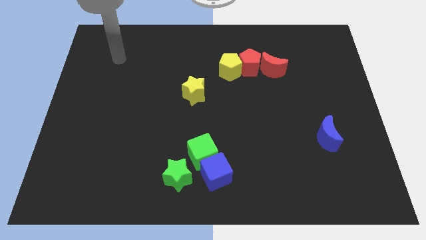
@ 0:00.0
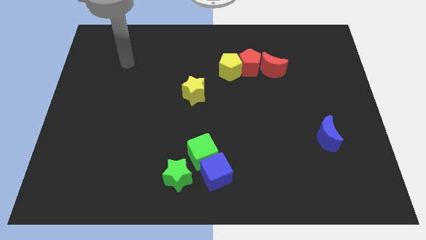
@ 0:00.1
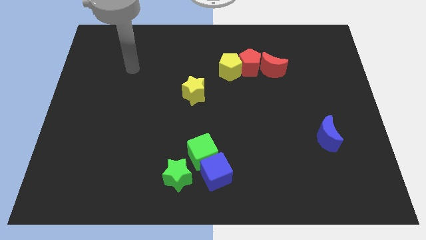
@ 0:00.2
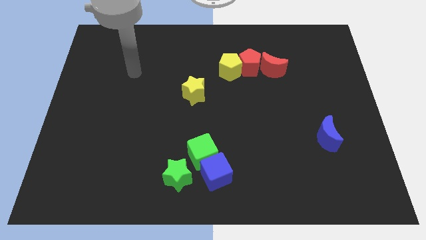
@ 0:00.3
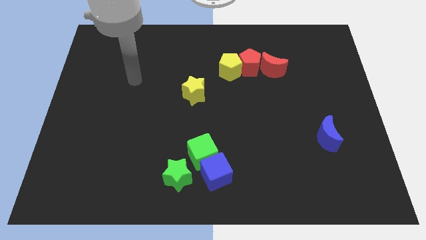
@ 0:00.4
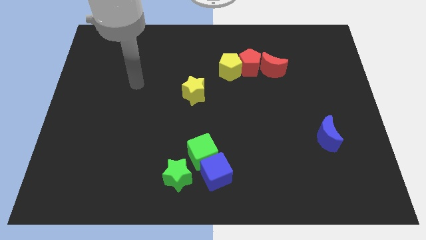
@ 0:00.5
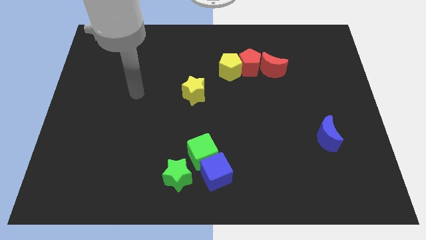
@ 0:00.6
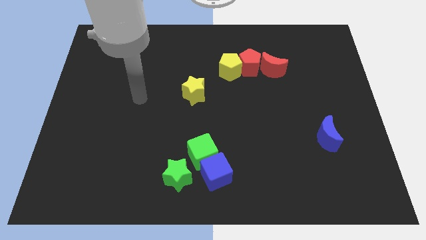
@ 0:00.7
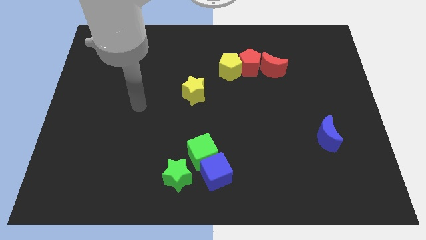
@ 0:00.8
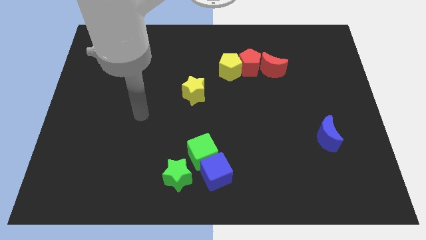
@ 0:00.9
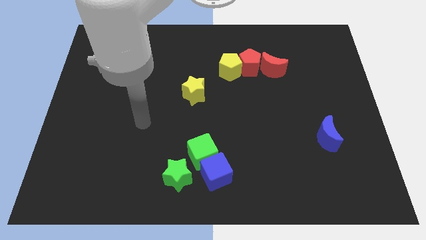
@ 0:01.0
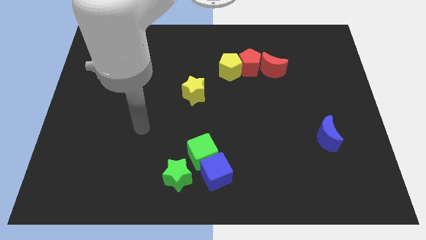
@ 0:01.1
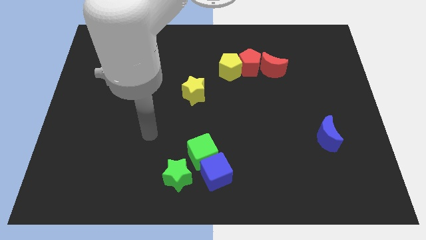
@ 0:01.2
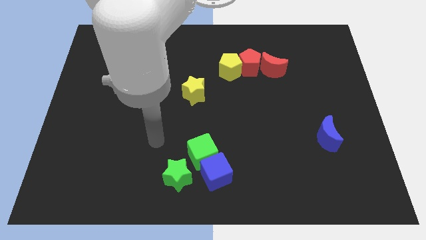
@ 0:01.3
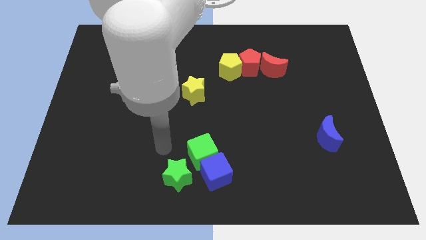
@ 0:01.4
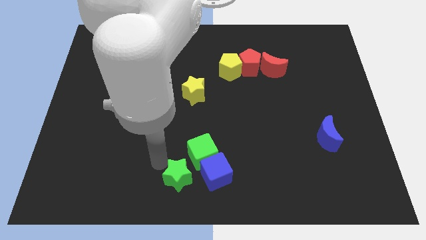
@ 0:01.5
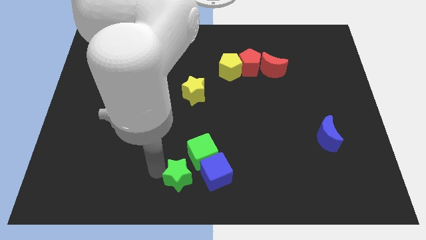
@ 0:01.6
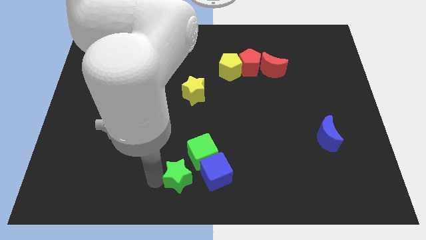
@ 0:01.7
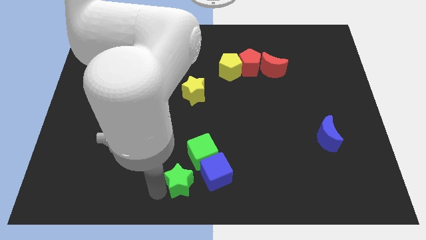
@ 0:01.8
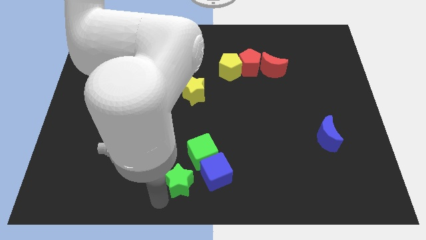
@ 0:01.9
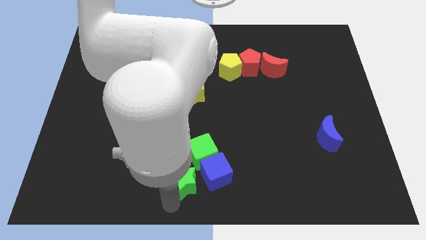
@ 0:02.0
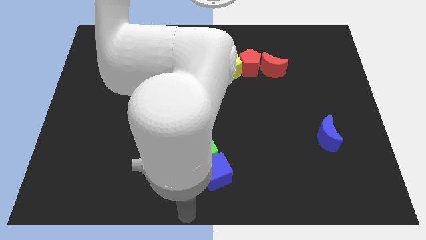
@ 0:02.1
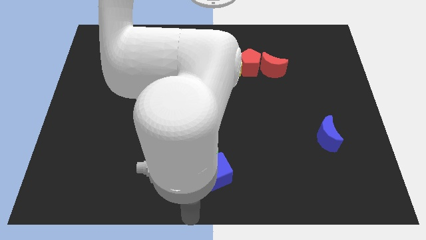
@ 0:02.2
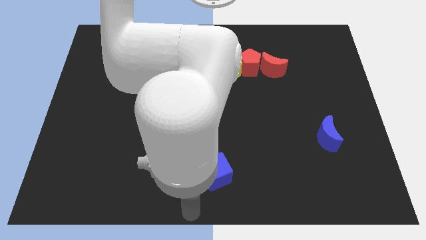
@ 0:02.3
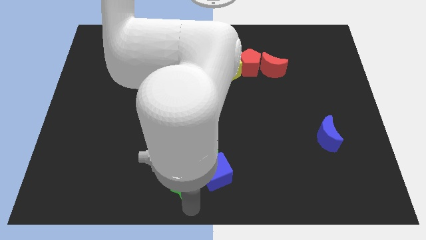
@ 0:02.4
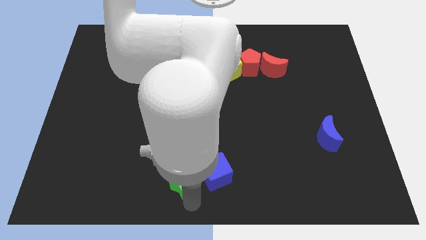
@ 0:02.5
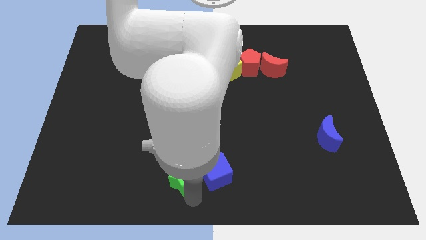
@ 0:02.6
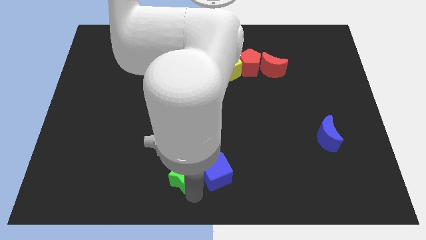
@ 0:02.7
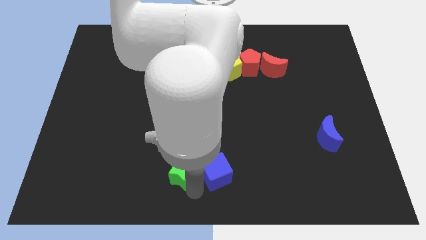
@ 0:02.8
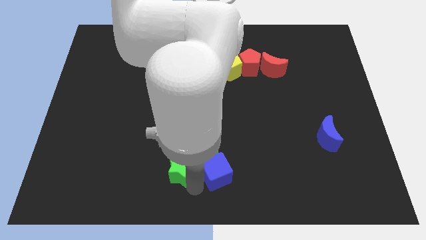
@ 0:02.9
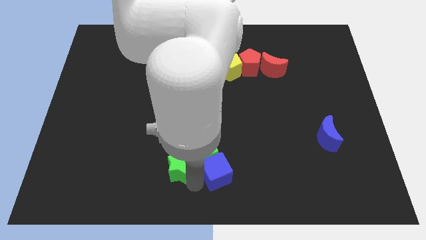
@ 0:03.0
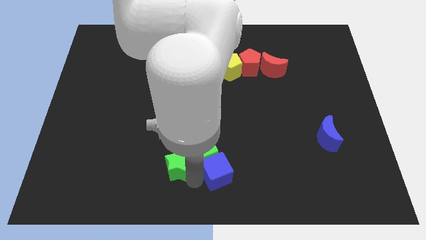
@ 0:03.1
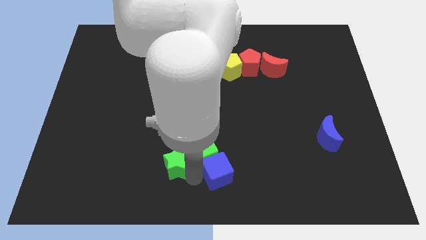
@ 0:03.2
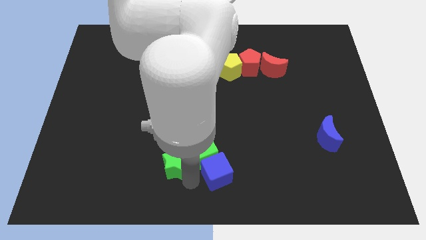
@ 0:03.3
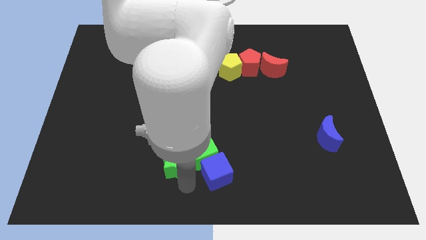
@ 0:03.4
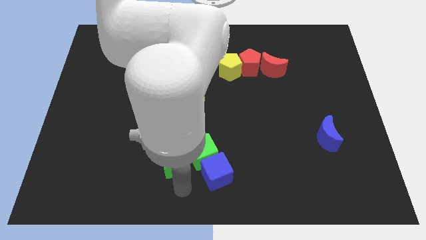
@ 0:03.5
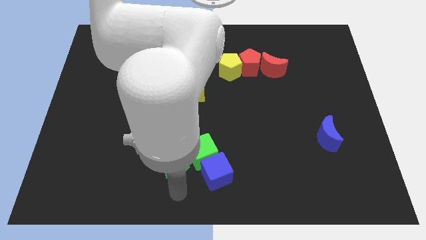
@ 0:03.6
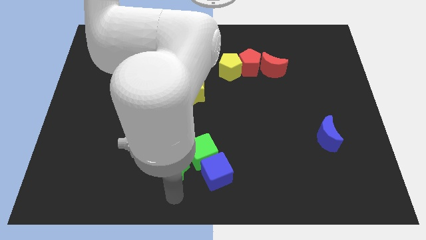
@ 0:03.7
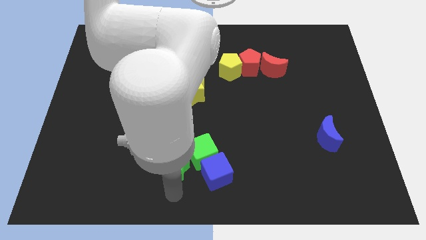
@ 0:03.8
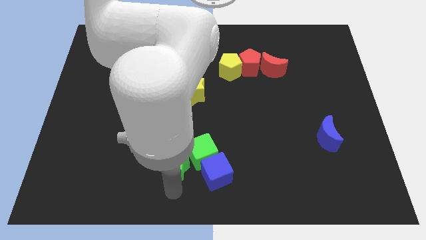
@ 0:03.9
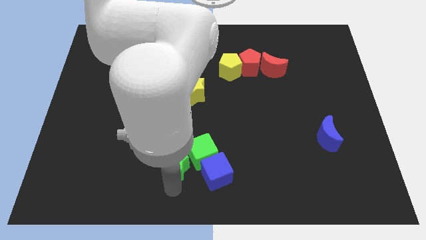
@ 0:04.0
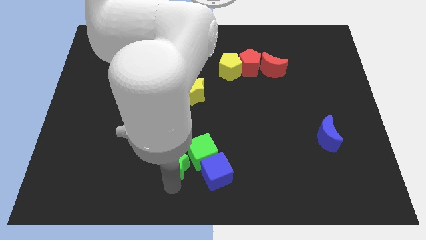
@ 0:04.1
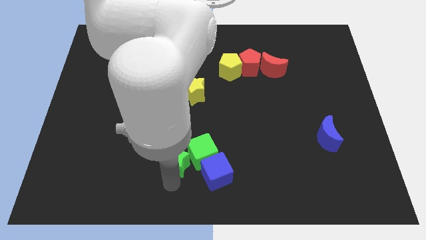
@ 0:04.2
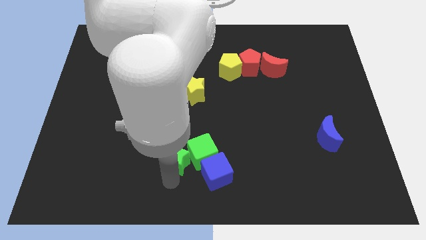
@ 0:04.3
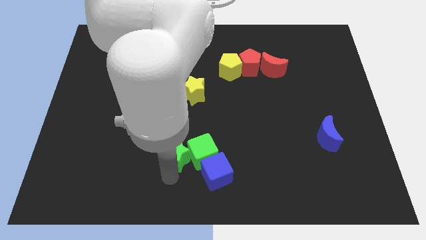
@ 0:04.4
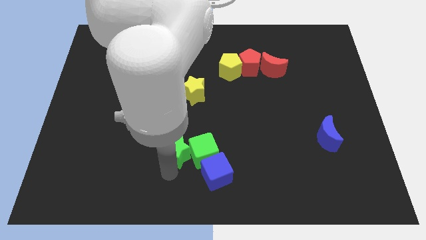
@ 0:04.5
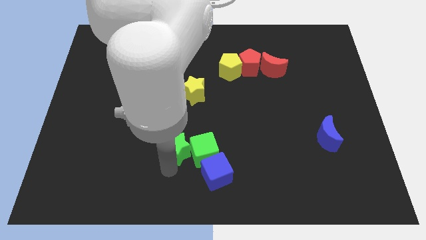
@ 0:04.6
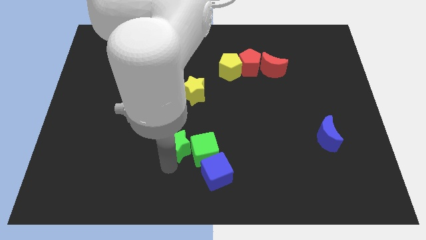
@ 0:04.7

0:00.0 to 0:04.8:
slide the green star below the yellow star

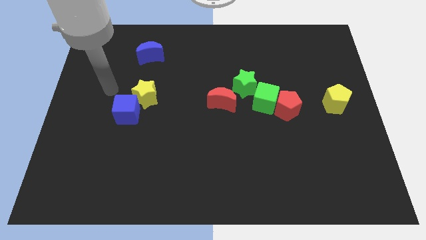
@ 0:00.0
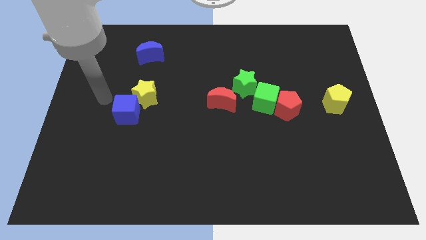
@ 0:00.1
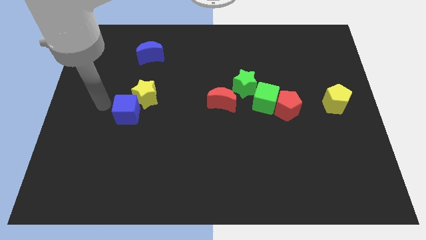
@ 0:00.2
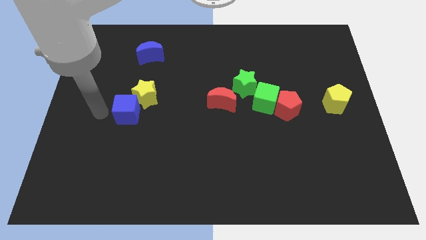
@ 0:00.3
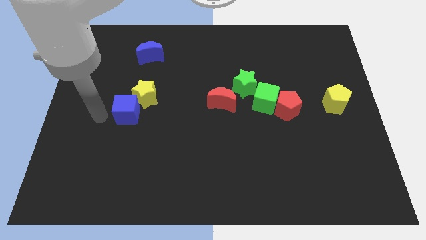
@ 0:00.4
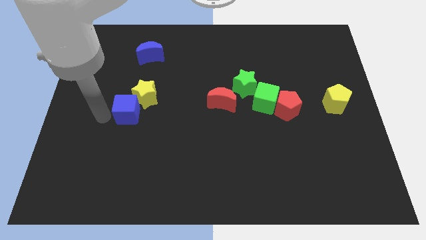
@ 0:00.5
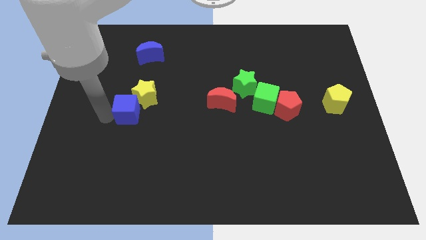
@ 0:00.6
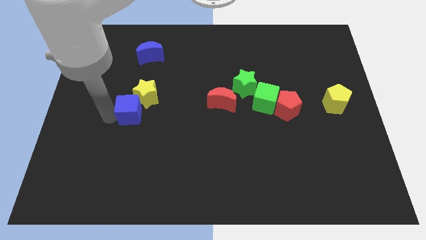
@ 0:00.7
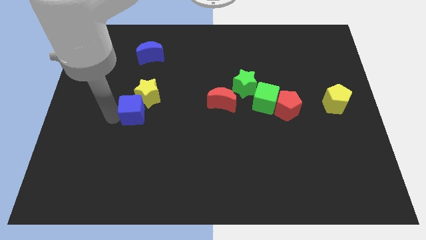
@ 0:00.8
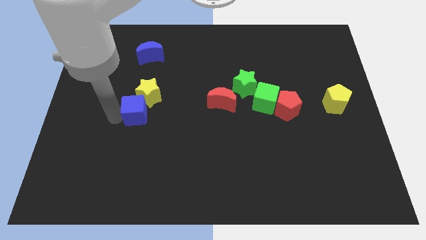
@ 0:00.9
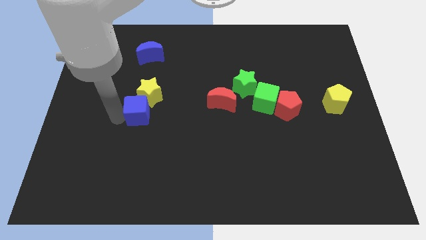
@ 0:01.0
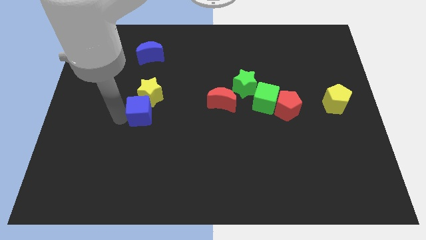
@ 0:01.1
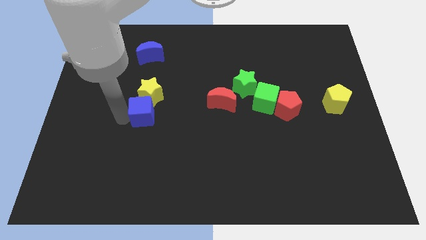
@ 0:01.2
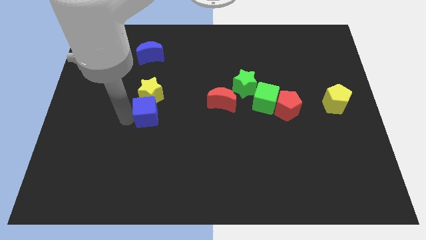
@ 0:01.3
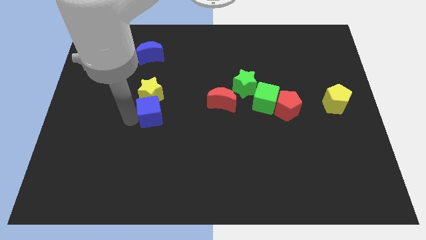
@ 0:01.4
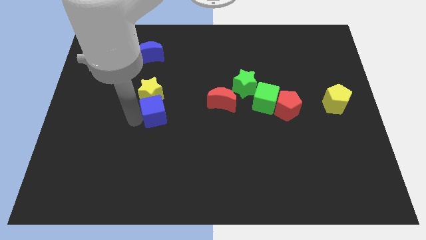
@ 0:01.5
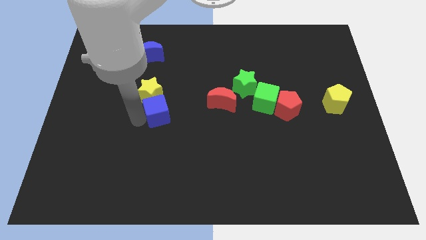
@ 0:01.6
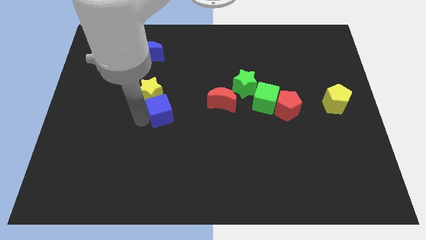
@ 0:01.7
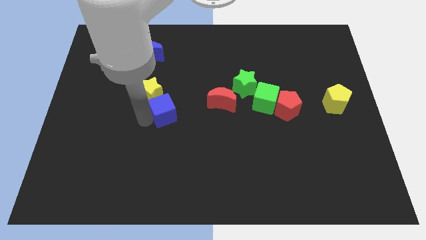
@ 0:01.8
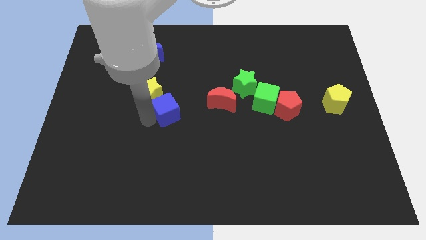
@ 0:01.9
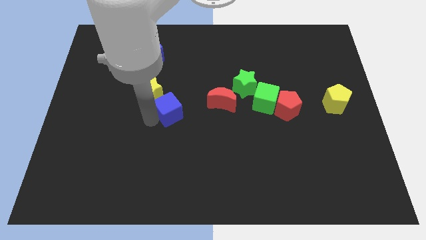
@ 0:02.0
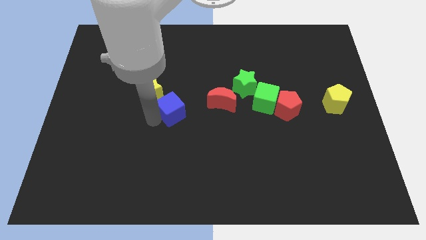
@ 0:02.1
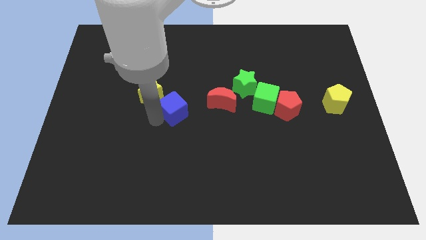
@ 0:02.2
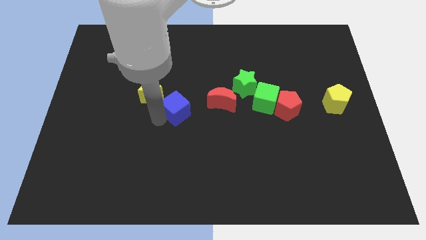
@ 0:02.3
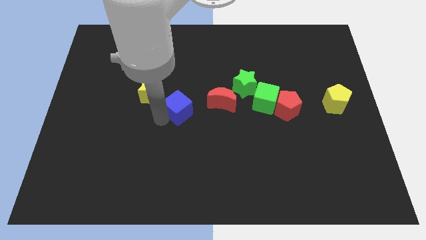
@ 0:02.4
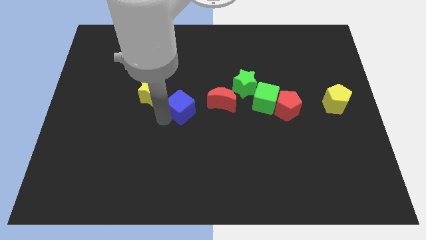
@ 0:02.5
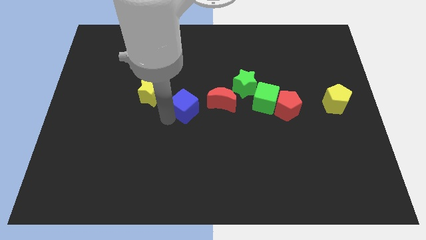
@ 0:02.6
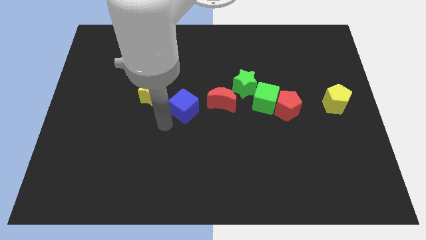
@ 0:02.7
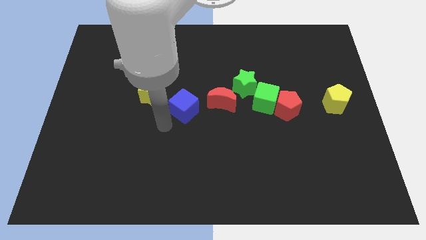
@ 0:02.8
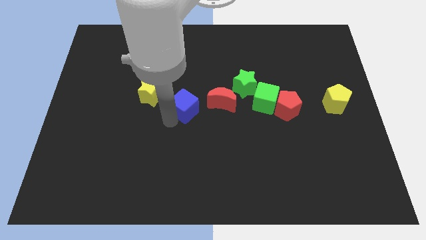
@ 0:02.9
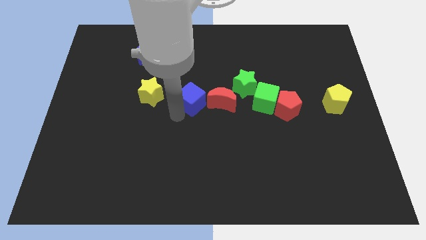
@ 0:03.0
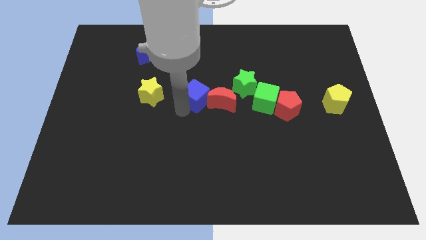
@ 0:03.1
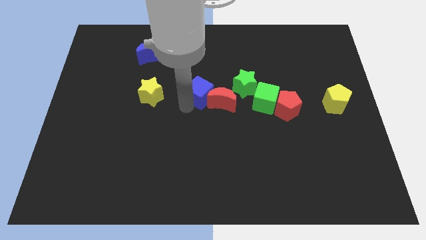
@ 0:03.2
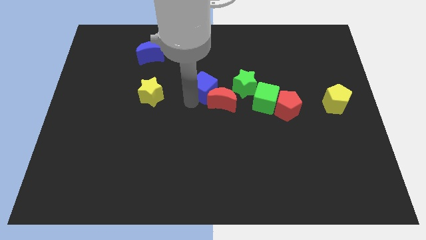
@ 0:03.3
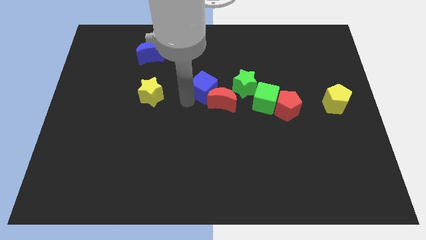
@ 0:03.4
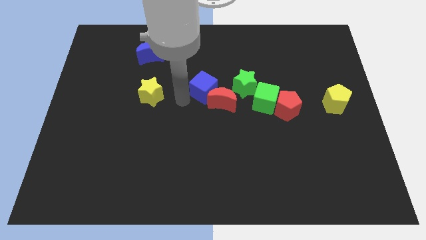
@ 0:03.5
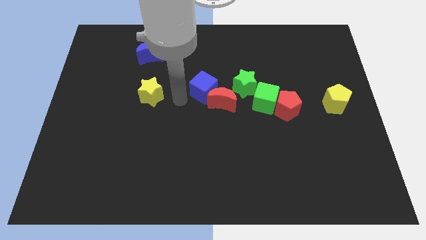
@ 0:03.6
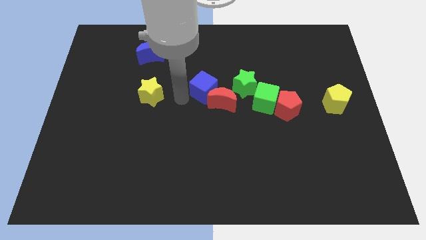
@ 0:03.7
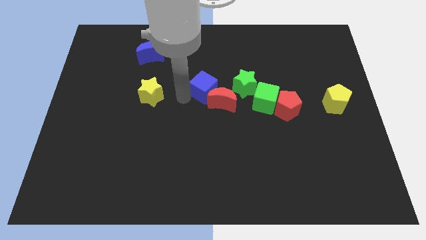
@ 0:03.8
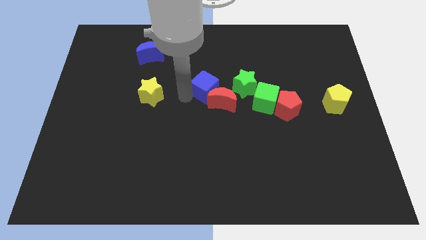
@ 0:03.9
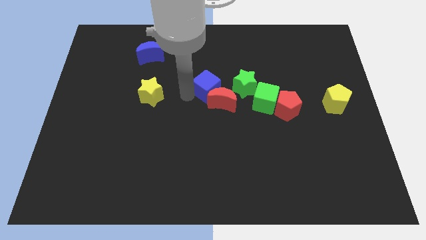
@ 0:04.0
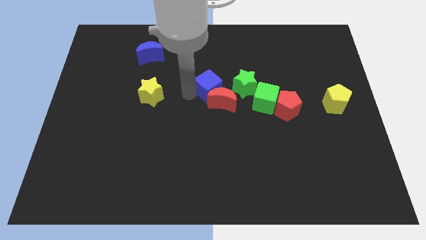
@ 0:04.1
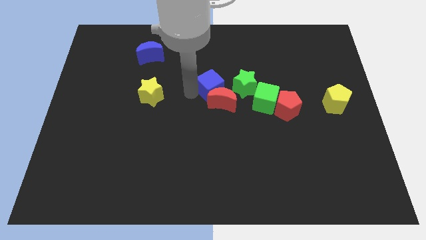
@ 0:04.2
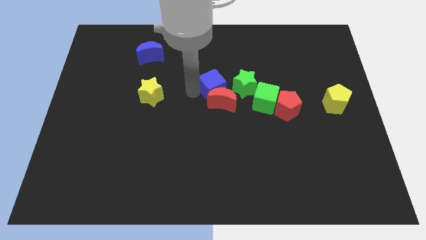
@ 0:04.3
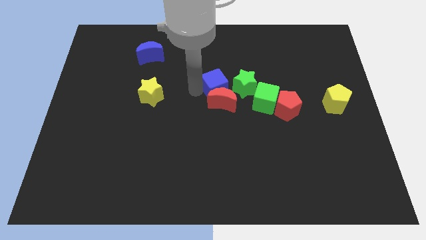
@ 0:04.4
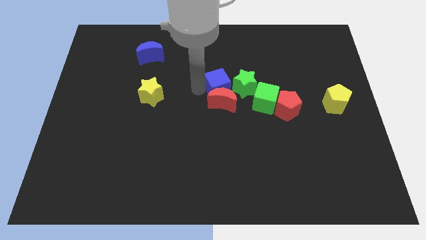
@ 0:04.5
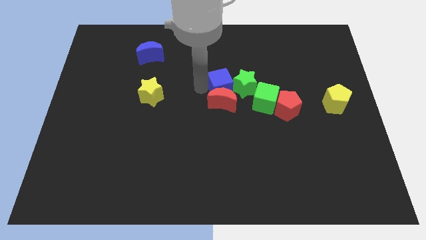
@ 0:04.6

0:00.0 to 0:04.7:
move the blue cube to the top left side of the green cube
